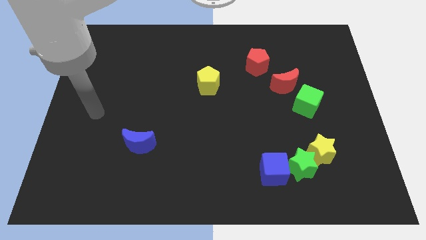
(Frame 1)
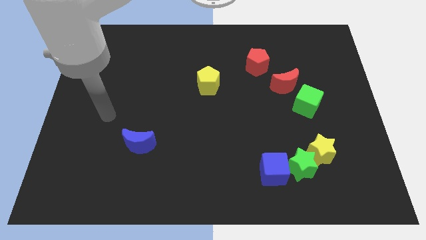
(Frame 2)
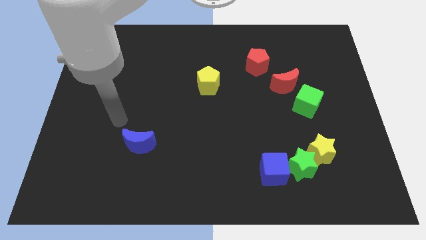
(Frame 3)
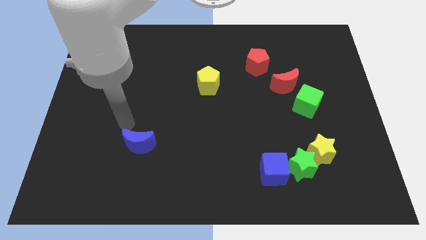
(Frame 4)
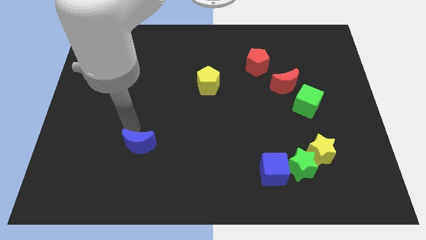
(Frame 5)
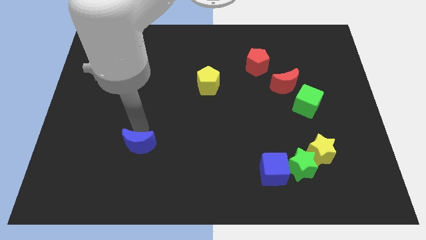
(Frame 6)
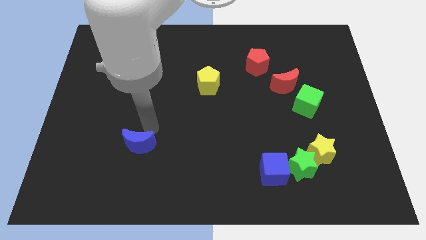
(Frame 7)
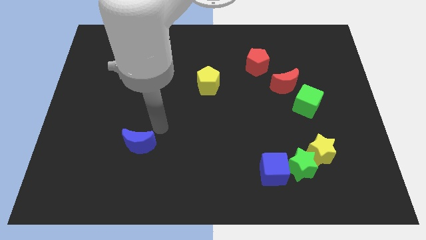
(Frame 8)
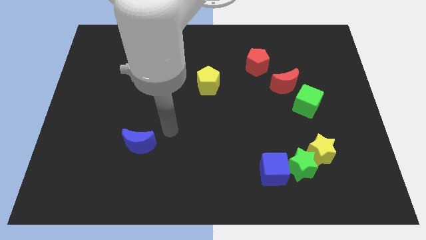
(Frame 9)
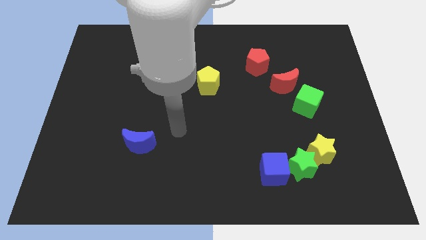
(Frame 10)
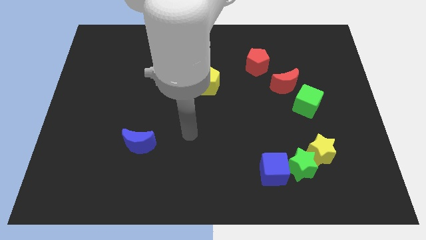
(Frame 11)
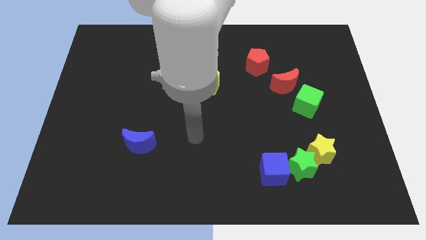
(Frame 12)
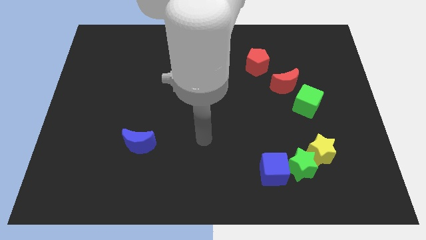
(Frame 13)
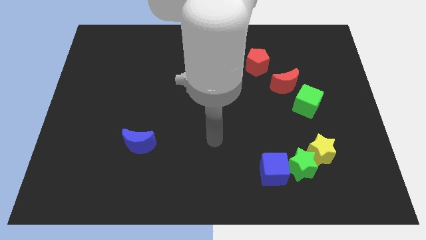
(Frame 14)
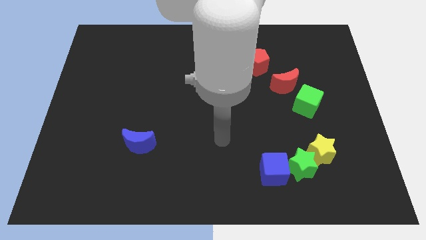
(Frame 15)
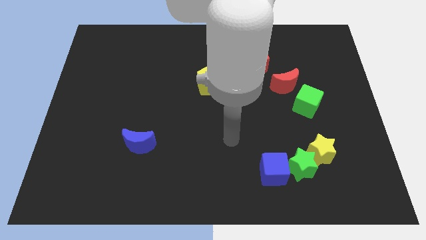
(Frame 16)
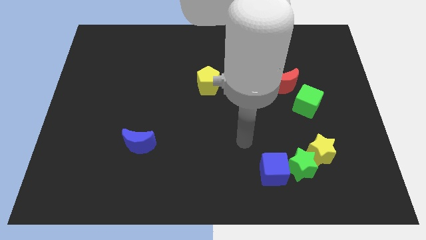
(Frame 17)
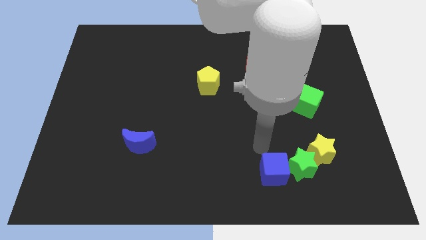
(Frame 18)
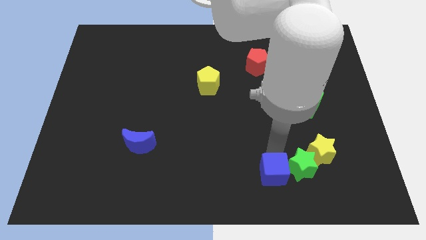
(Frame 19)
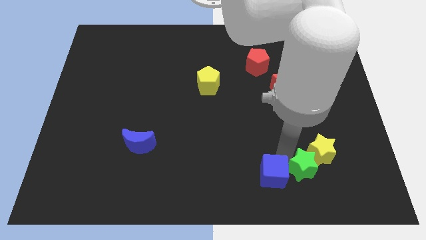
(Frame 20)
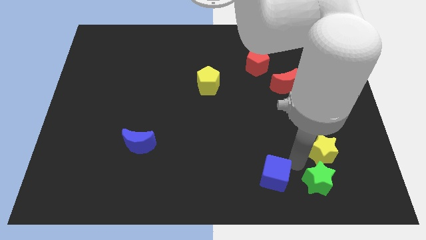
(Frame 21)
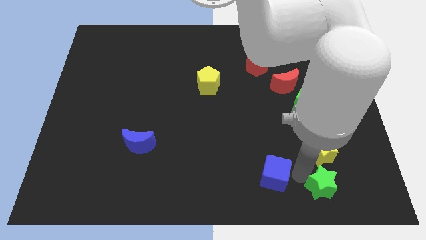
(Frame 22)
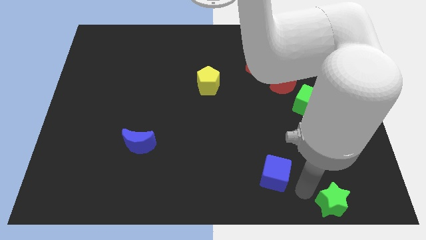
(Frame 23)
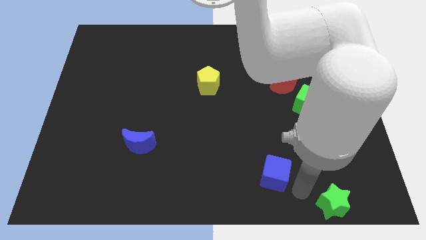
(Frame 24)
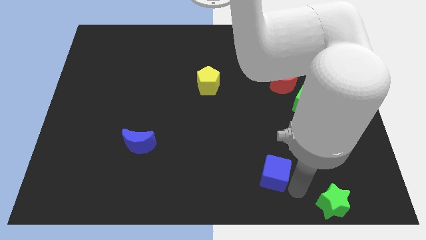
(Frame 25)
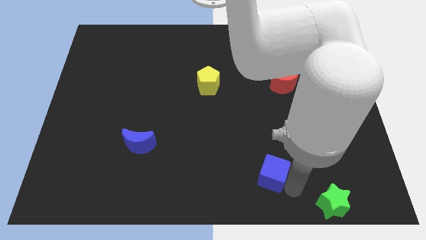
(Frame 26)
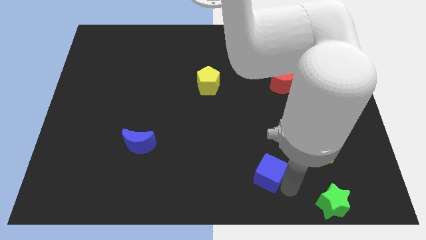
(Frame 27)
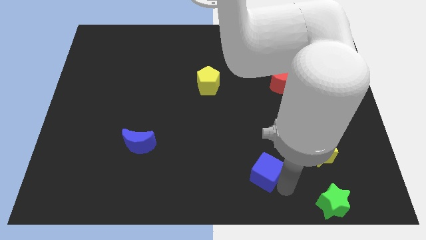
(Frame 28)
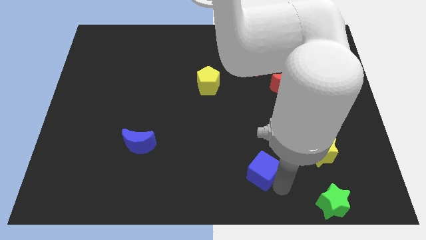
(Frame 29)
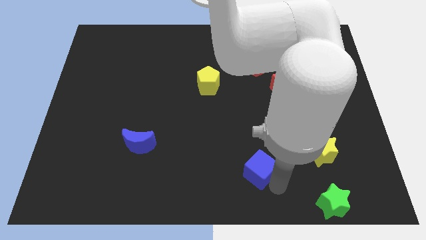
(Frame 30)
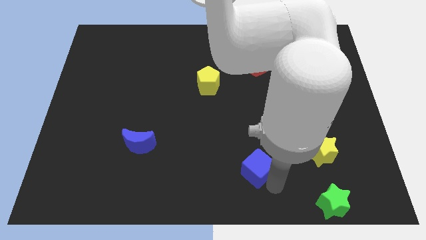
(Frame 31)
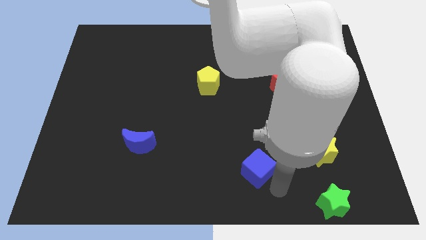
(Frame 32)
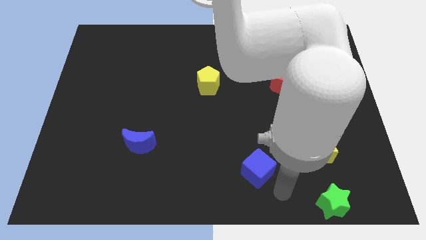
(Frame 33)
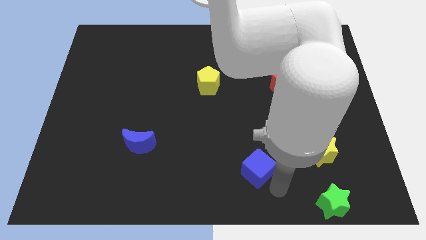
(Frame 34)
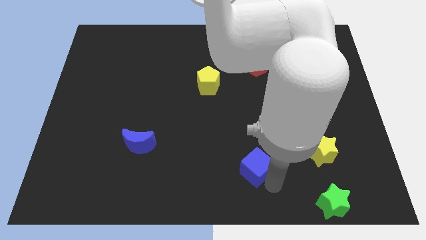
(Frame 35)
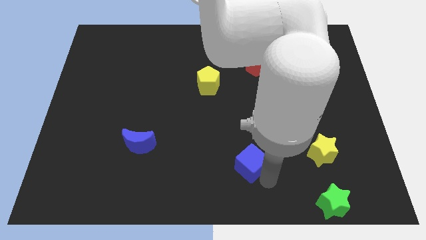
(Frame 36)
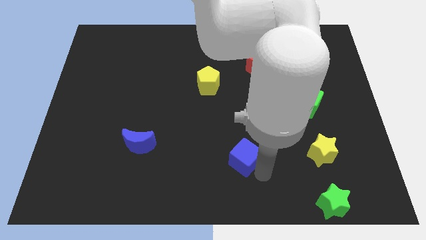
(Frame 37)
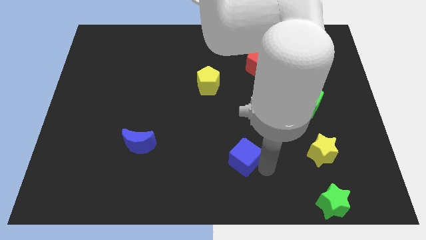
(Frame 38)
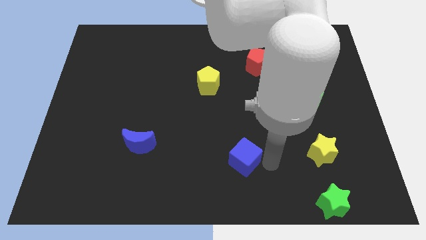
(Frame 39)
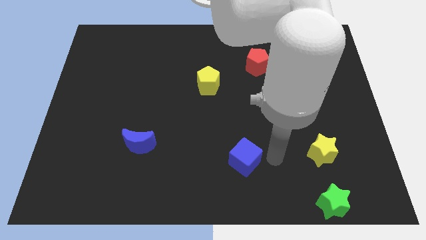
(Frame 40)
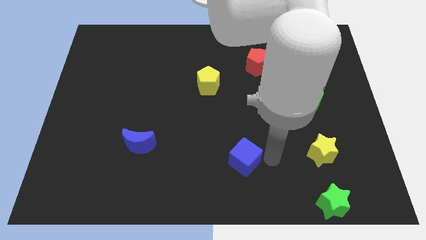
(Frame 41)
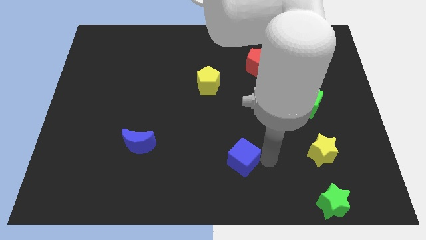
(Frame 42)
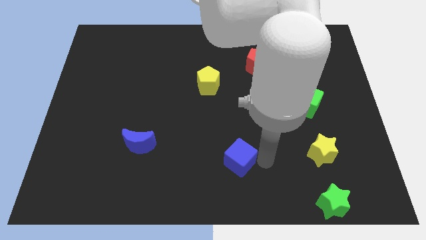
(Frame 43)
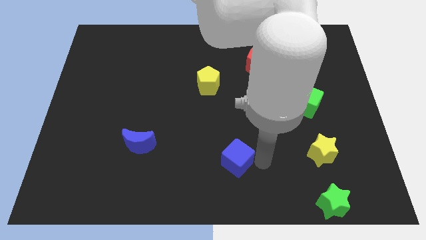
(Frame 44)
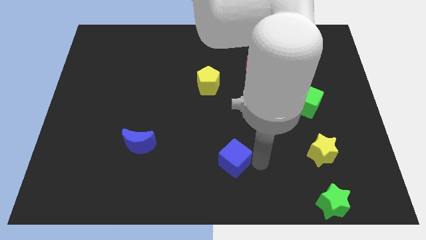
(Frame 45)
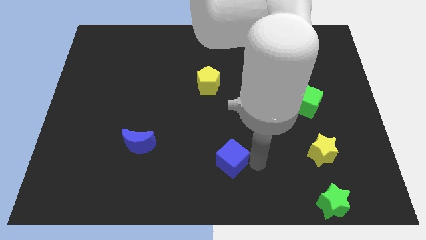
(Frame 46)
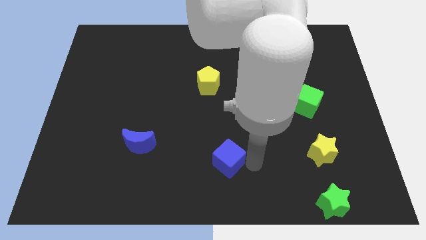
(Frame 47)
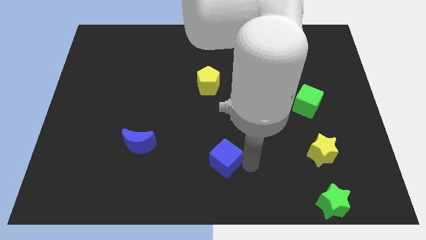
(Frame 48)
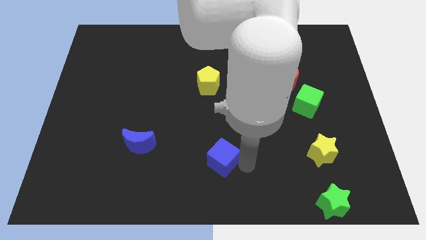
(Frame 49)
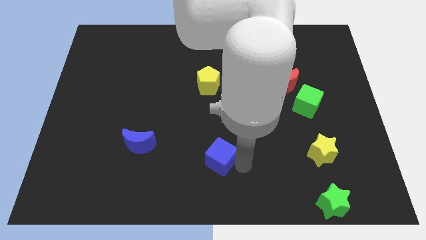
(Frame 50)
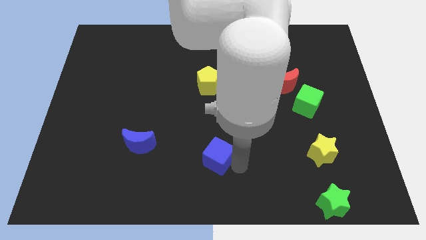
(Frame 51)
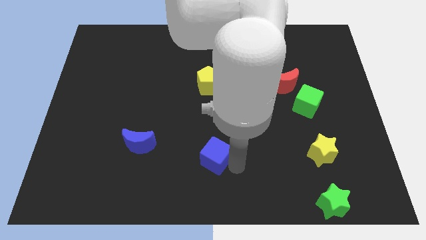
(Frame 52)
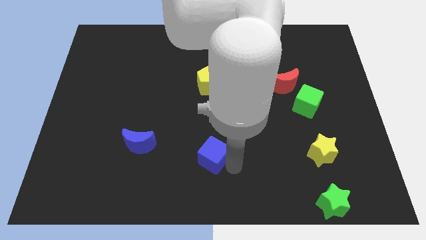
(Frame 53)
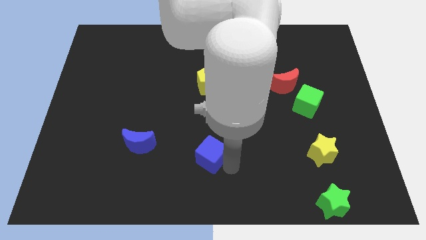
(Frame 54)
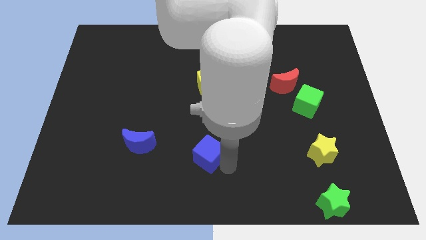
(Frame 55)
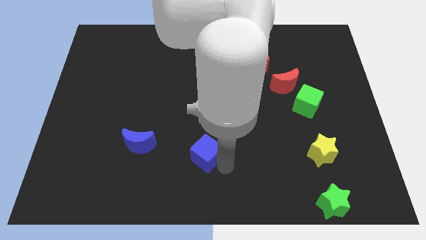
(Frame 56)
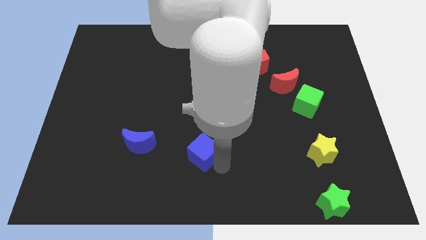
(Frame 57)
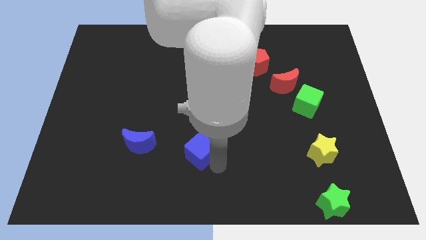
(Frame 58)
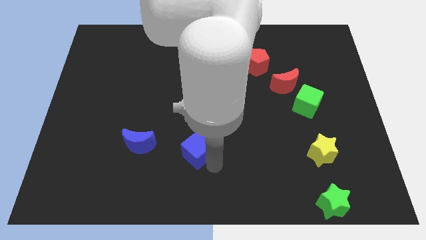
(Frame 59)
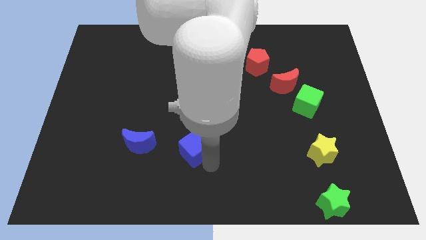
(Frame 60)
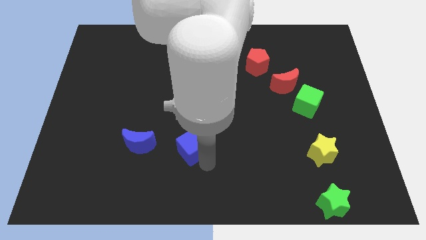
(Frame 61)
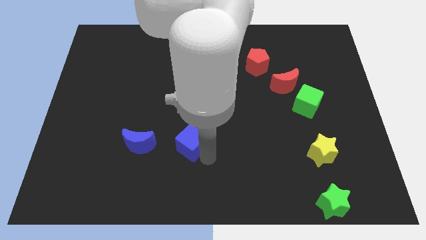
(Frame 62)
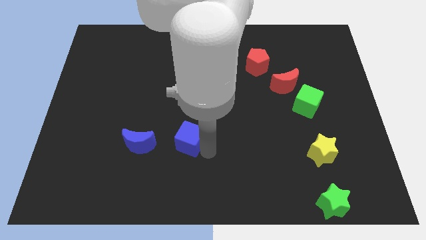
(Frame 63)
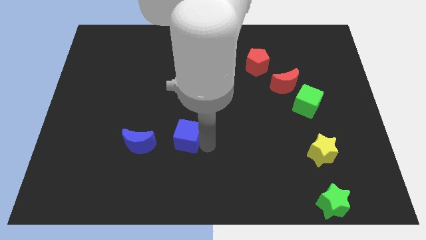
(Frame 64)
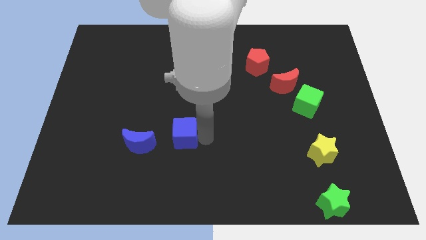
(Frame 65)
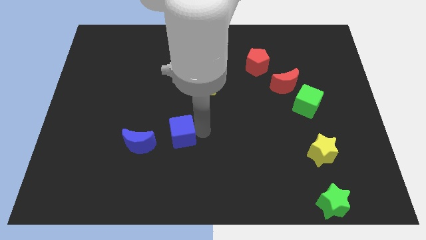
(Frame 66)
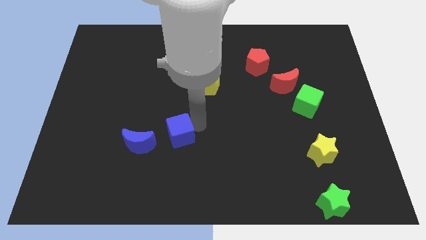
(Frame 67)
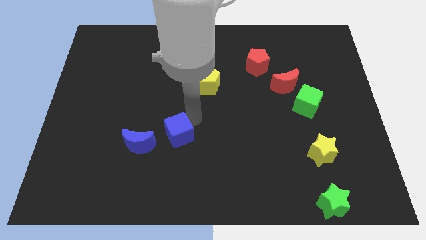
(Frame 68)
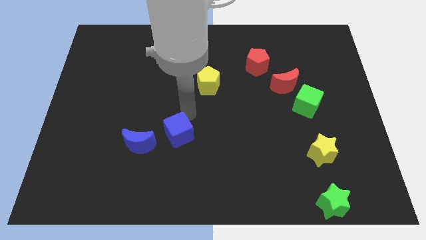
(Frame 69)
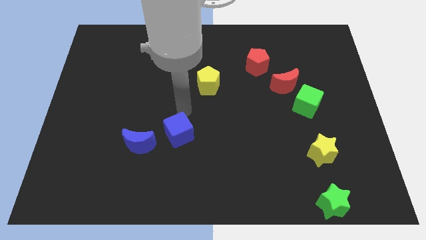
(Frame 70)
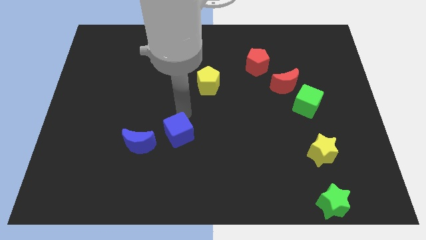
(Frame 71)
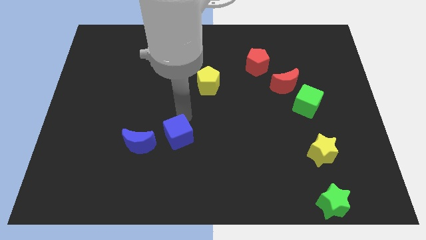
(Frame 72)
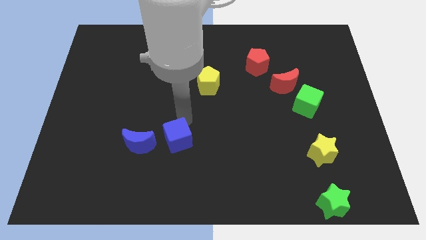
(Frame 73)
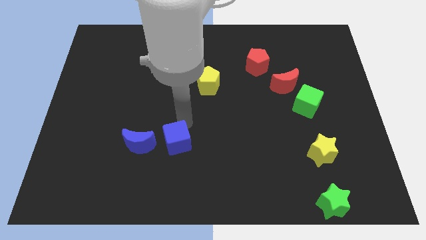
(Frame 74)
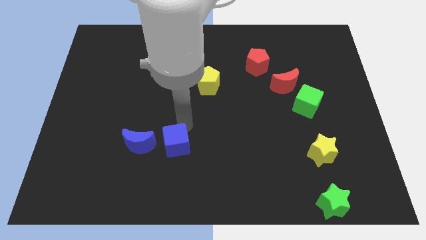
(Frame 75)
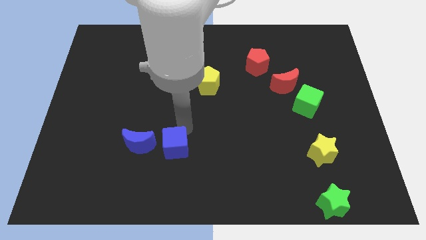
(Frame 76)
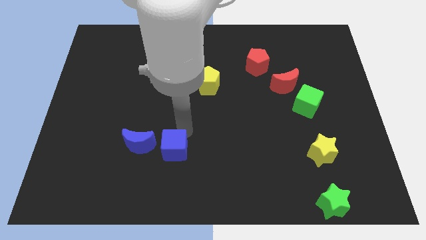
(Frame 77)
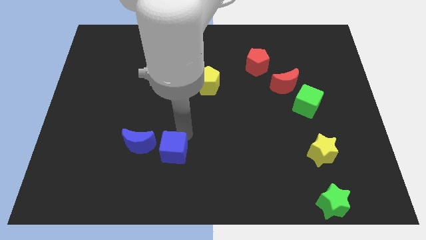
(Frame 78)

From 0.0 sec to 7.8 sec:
push the blue cube left

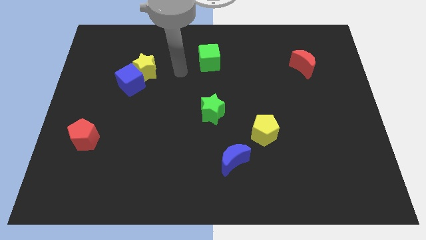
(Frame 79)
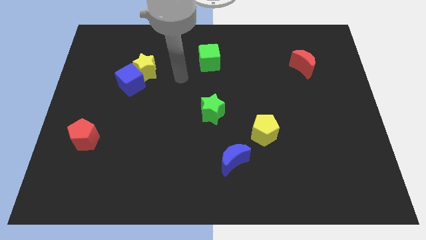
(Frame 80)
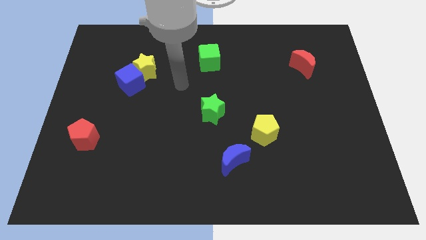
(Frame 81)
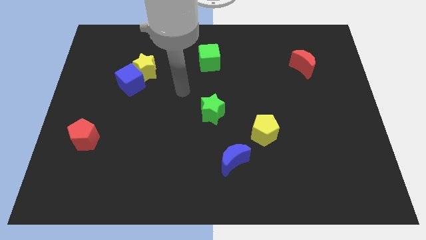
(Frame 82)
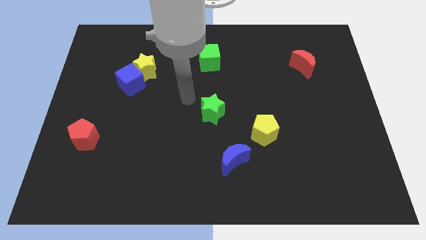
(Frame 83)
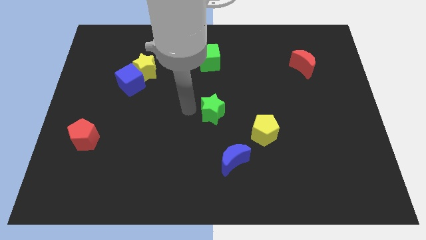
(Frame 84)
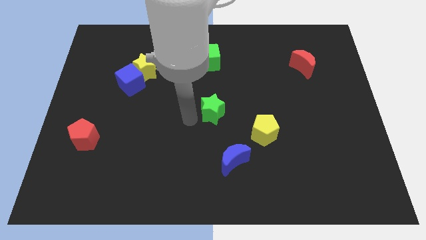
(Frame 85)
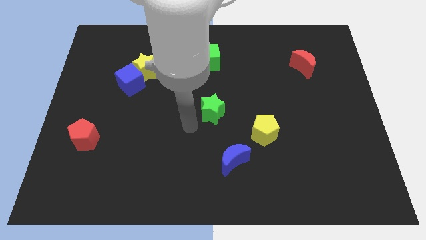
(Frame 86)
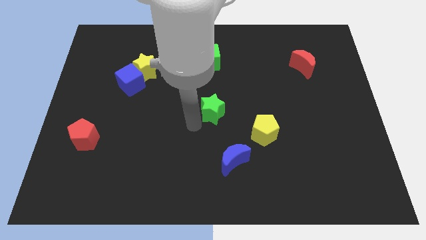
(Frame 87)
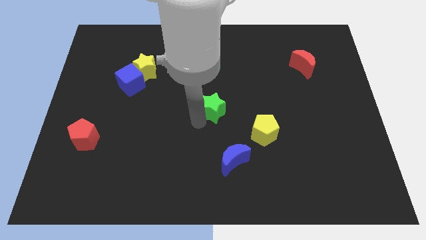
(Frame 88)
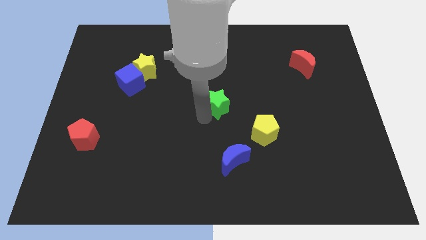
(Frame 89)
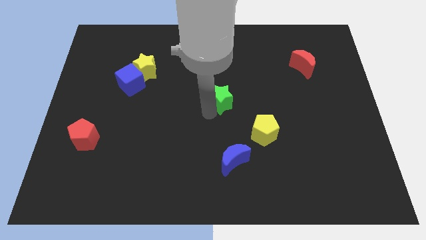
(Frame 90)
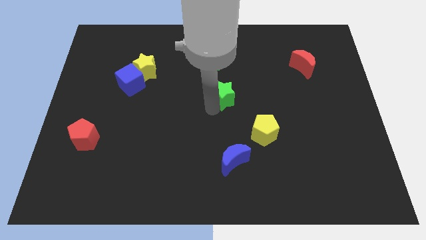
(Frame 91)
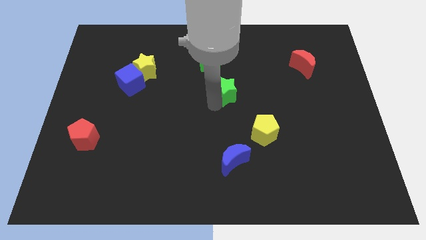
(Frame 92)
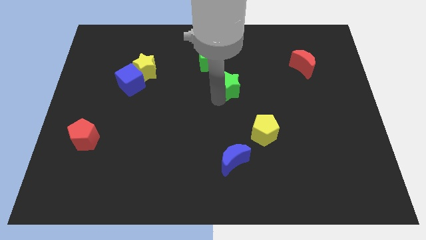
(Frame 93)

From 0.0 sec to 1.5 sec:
slide the green star up and to the right somewhat
